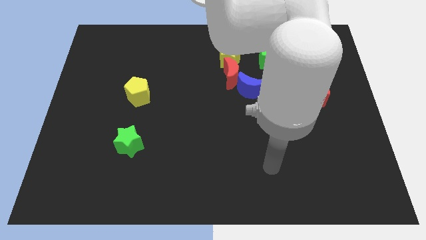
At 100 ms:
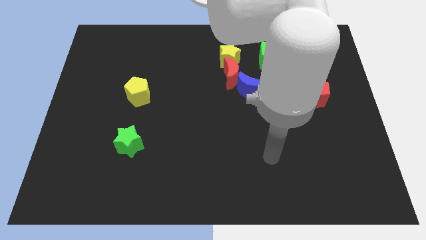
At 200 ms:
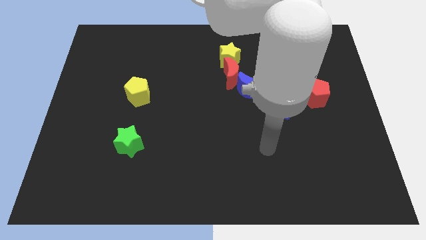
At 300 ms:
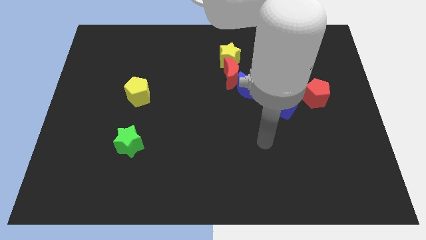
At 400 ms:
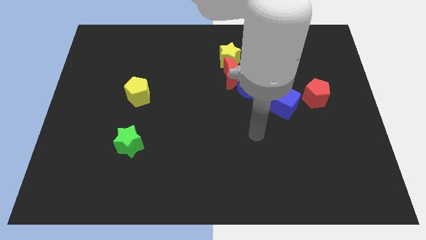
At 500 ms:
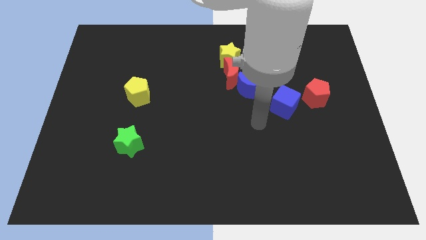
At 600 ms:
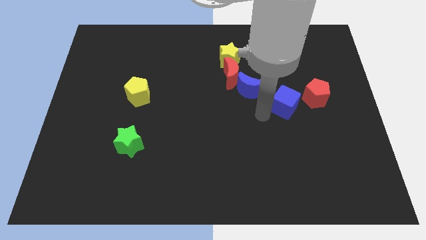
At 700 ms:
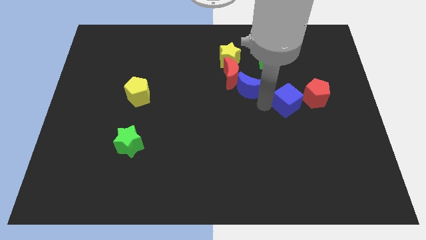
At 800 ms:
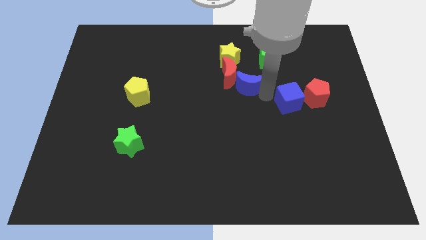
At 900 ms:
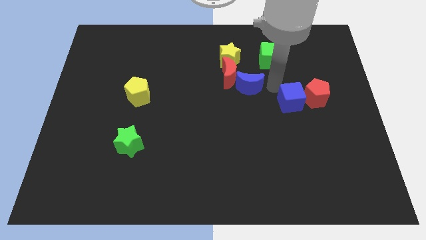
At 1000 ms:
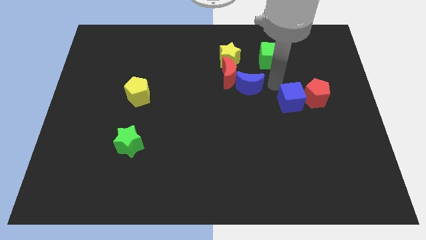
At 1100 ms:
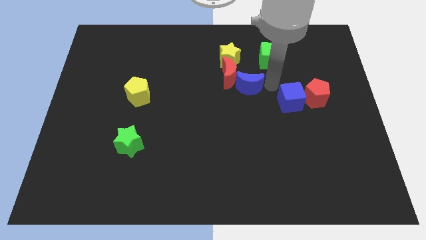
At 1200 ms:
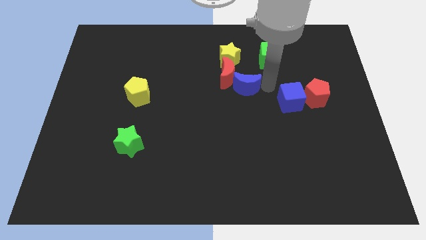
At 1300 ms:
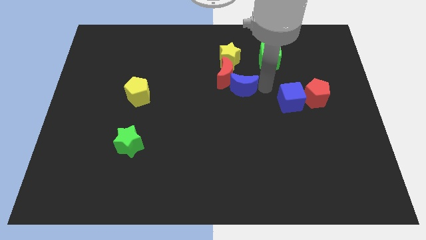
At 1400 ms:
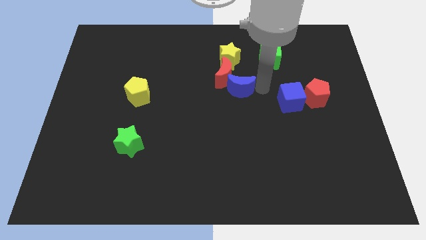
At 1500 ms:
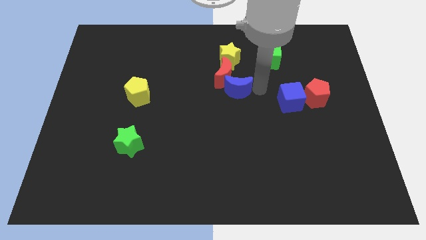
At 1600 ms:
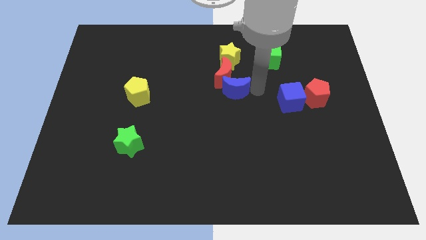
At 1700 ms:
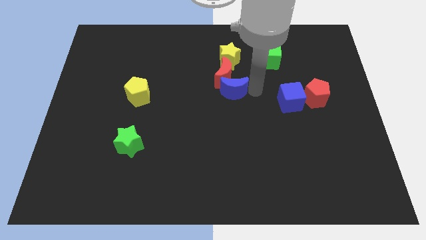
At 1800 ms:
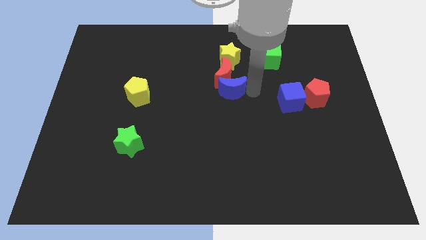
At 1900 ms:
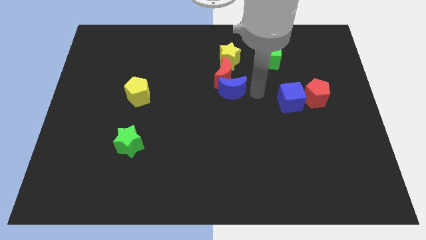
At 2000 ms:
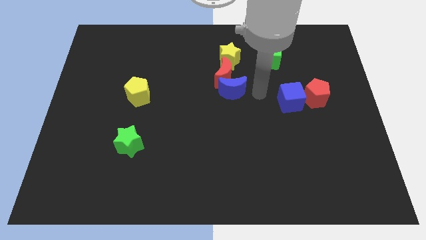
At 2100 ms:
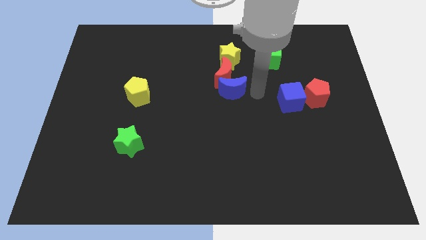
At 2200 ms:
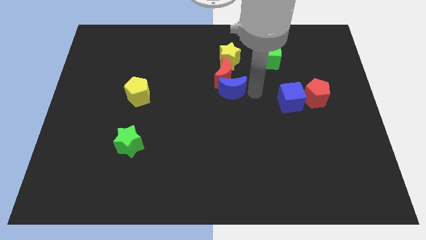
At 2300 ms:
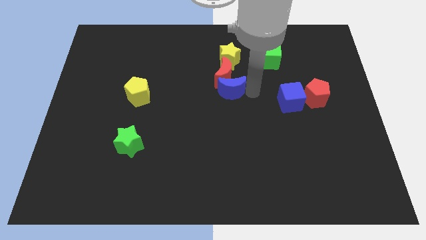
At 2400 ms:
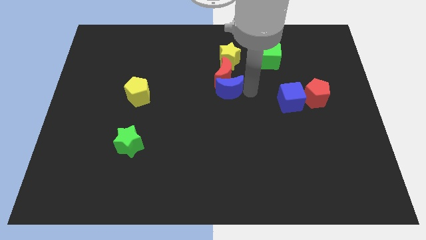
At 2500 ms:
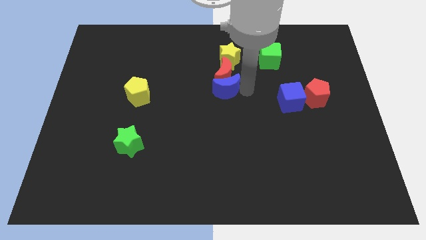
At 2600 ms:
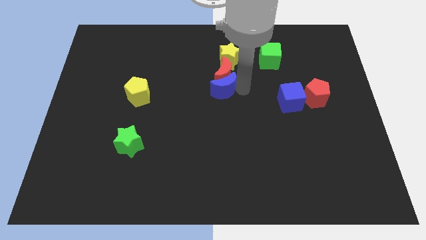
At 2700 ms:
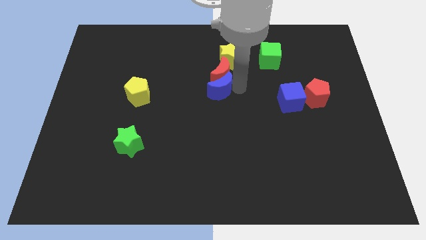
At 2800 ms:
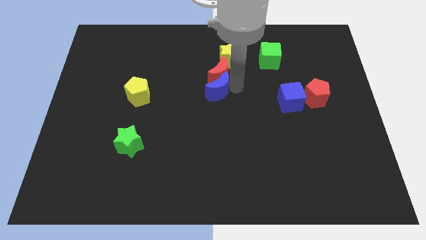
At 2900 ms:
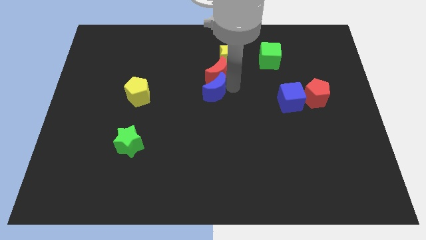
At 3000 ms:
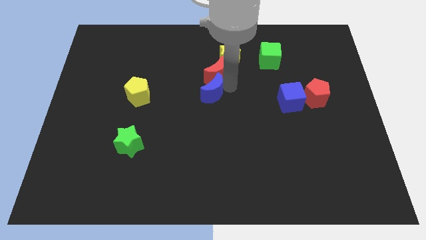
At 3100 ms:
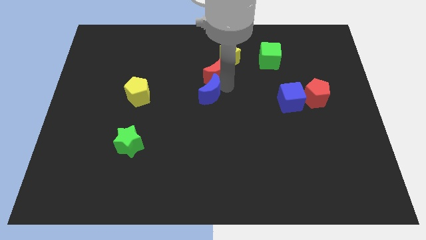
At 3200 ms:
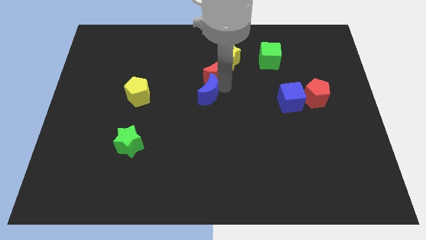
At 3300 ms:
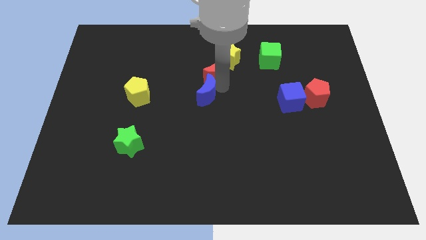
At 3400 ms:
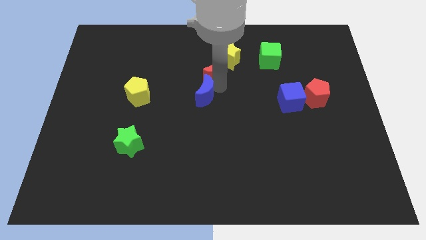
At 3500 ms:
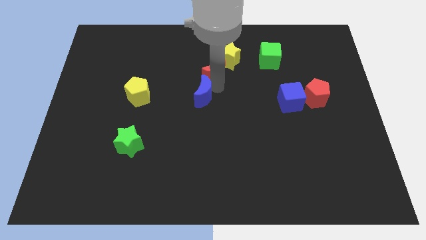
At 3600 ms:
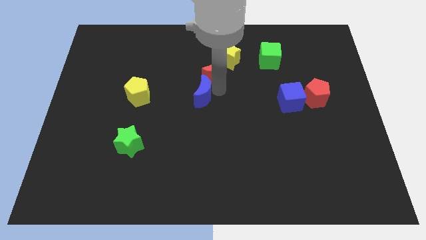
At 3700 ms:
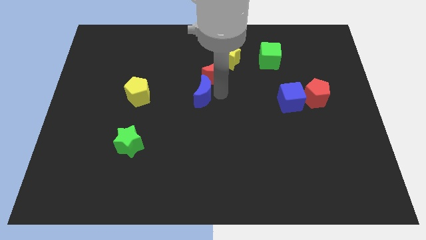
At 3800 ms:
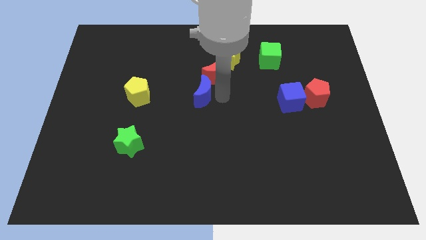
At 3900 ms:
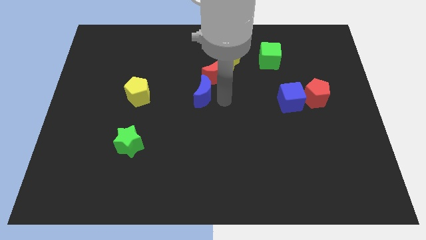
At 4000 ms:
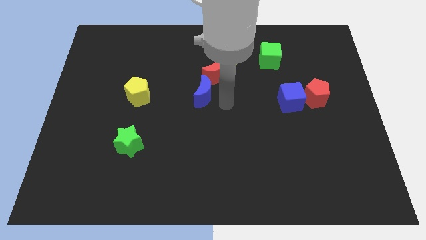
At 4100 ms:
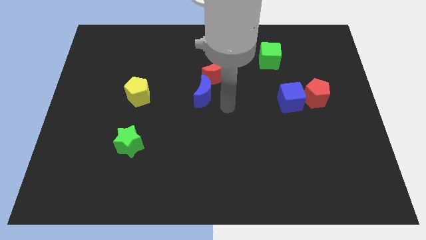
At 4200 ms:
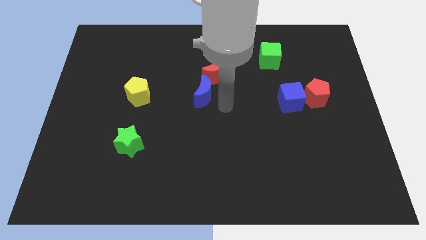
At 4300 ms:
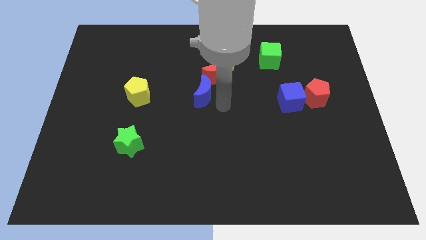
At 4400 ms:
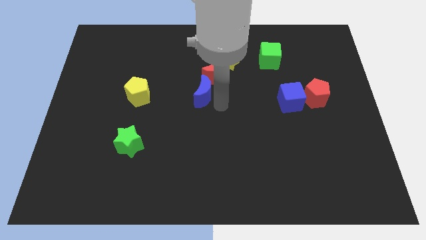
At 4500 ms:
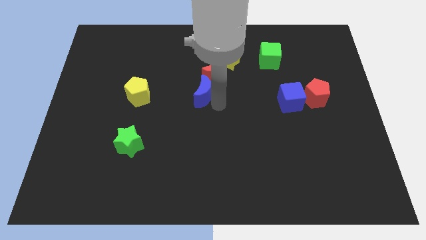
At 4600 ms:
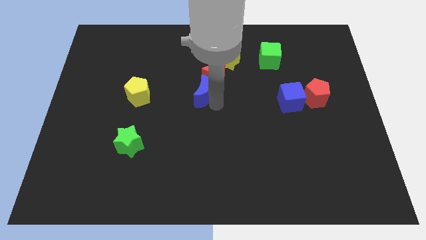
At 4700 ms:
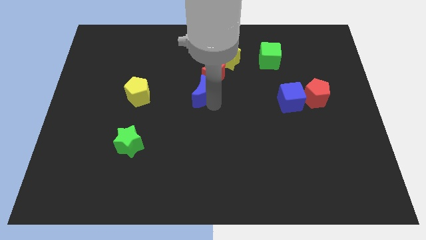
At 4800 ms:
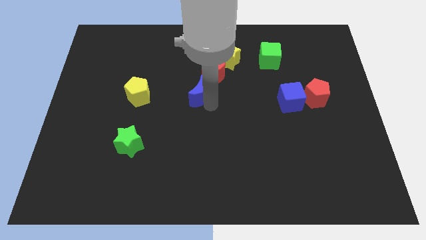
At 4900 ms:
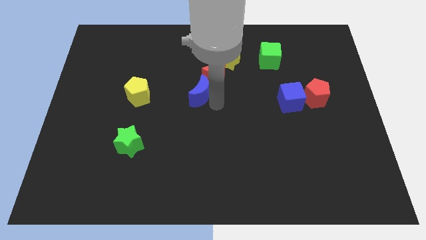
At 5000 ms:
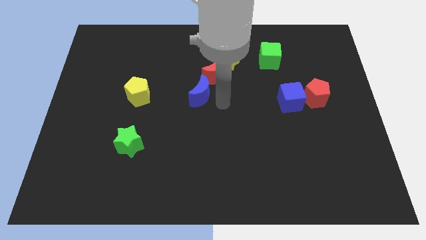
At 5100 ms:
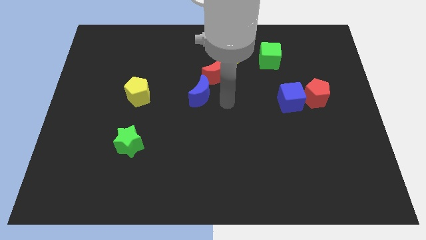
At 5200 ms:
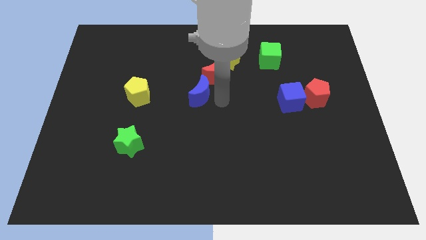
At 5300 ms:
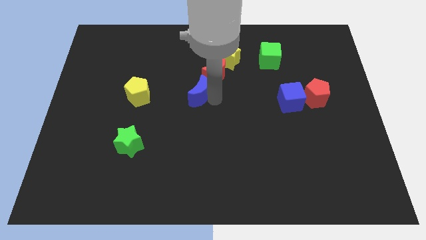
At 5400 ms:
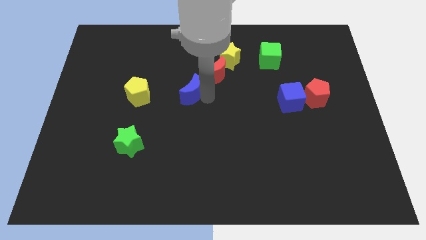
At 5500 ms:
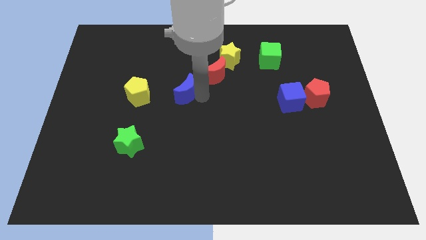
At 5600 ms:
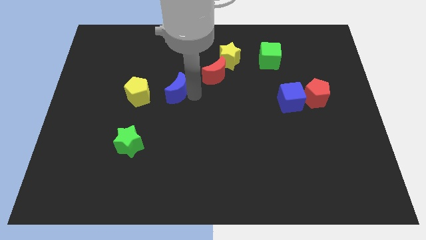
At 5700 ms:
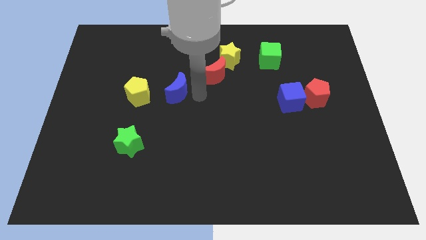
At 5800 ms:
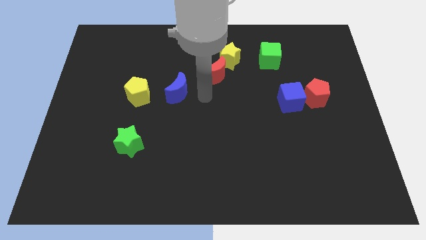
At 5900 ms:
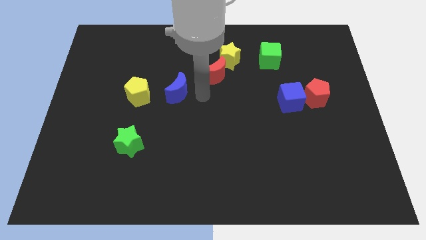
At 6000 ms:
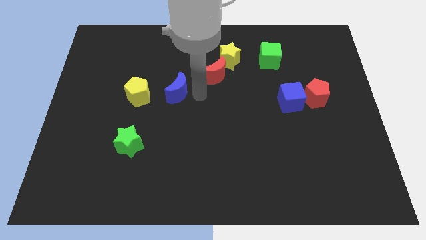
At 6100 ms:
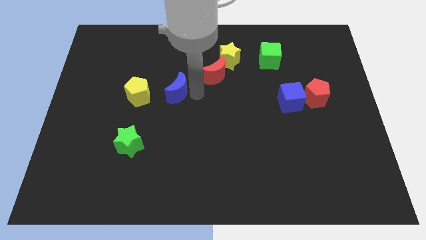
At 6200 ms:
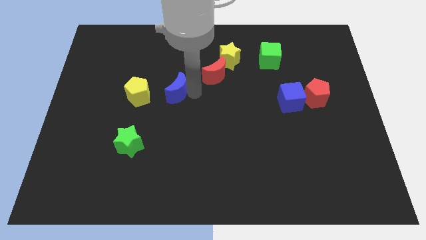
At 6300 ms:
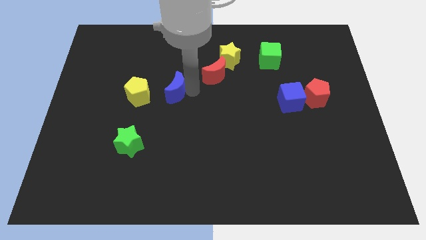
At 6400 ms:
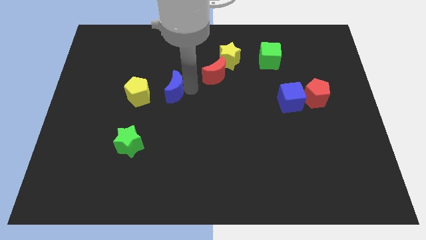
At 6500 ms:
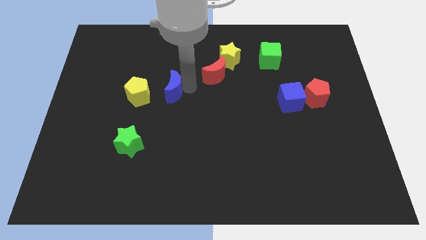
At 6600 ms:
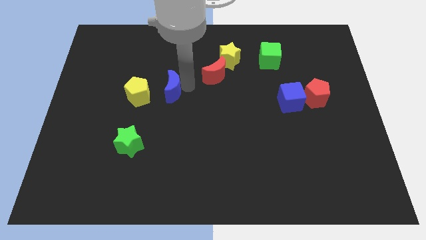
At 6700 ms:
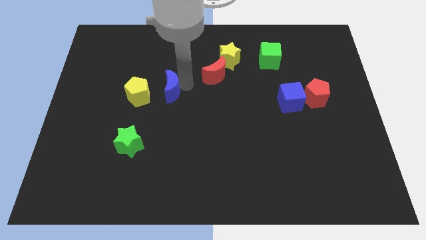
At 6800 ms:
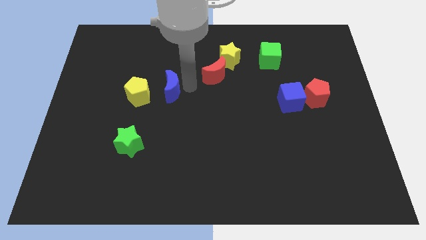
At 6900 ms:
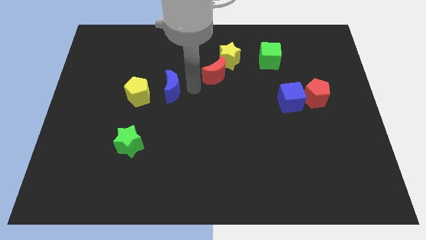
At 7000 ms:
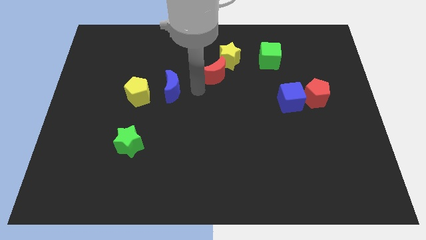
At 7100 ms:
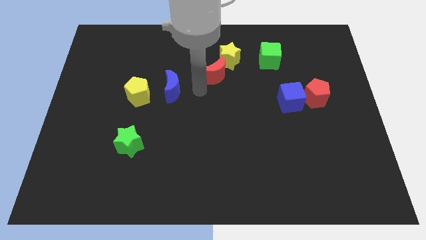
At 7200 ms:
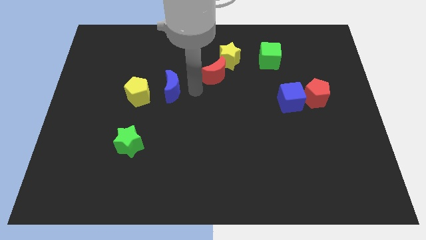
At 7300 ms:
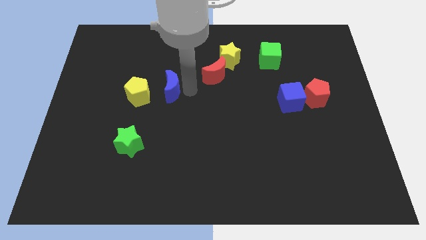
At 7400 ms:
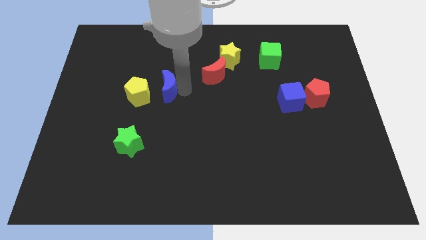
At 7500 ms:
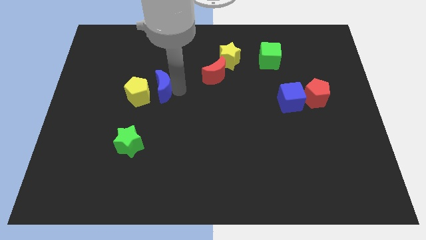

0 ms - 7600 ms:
slide the blue moon to the left

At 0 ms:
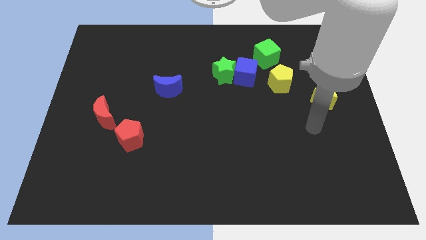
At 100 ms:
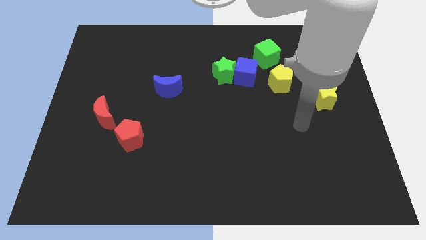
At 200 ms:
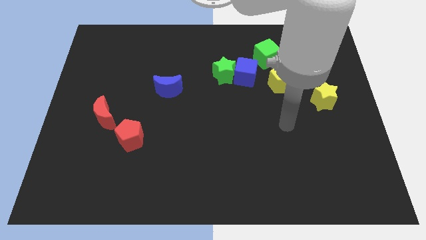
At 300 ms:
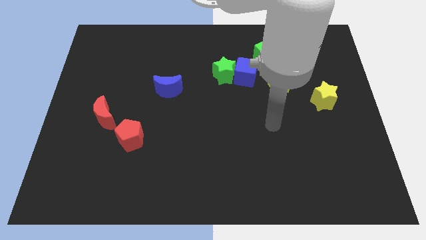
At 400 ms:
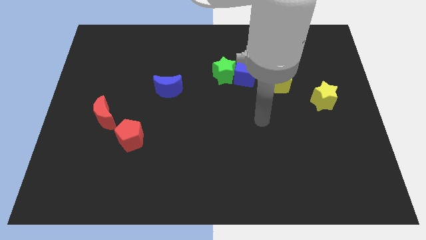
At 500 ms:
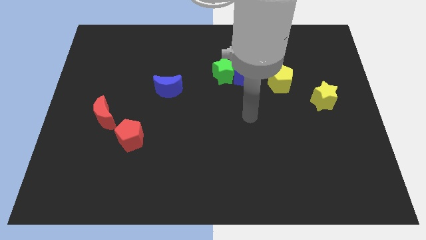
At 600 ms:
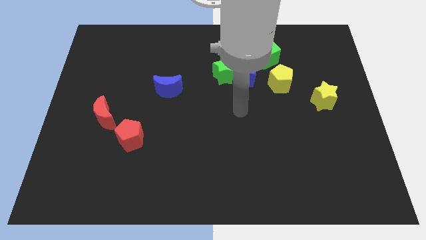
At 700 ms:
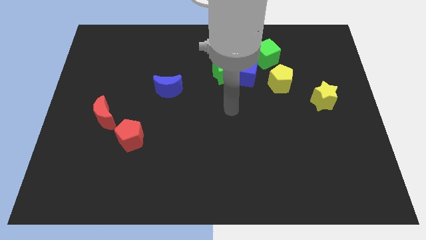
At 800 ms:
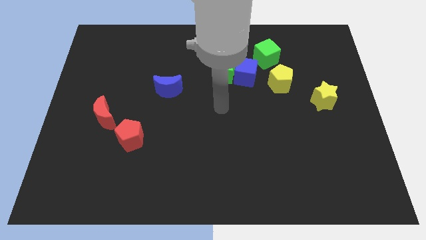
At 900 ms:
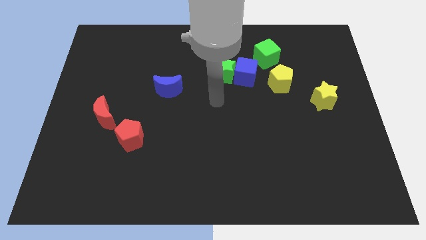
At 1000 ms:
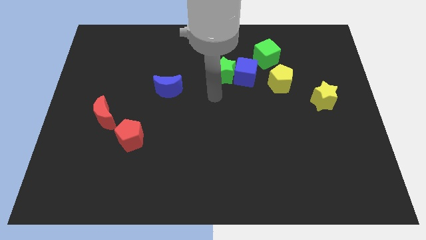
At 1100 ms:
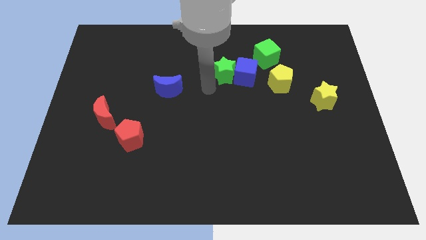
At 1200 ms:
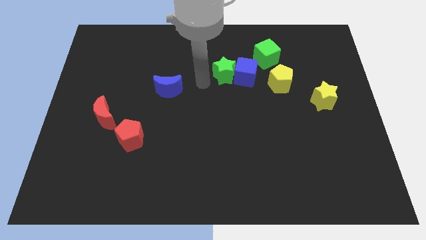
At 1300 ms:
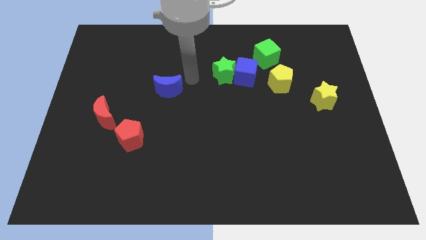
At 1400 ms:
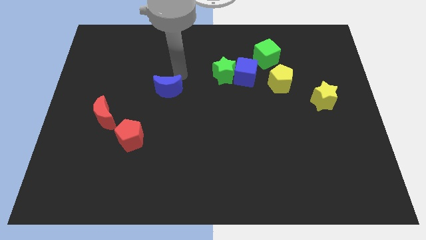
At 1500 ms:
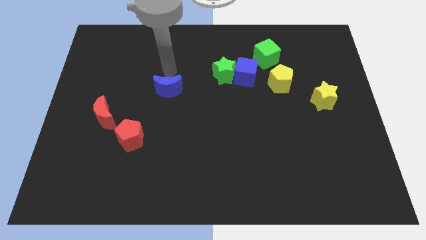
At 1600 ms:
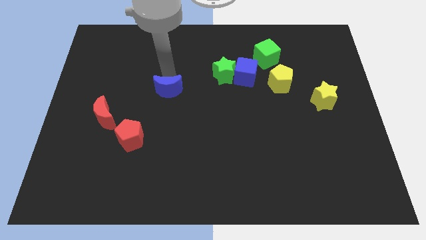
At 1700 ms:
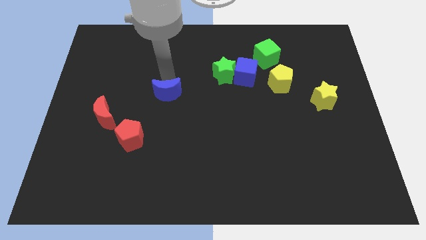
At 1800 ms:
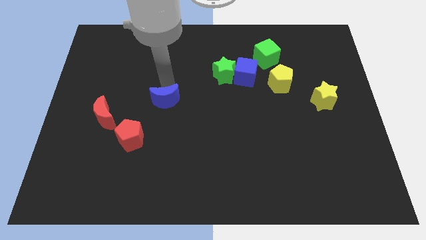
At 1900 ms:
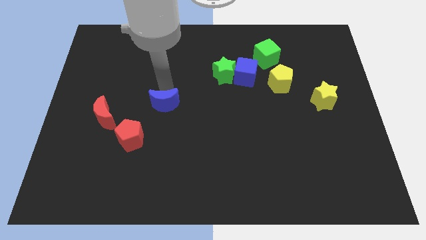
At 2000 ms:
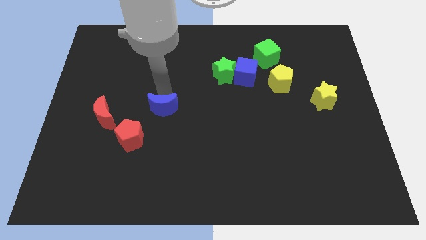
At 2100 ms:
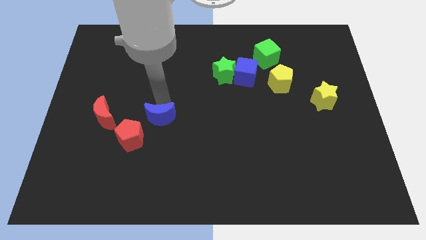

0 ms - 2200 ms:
push the blue moon a little bit downwards
